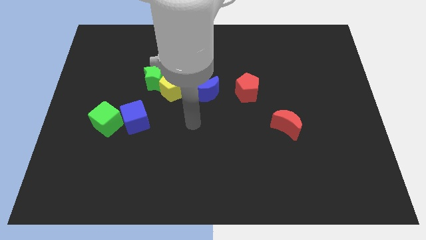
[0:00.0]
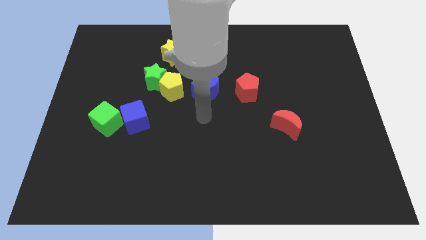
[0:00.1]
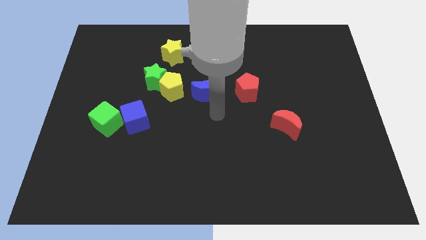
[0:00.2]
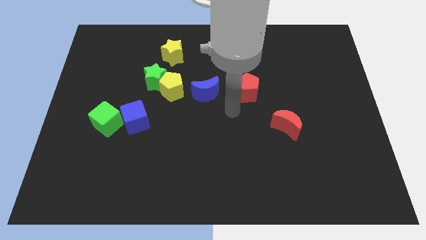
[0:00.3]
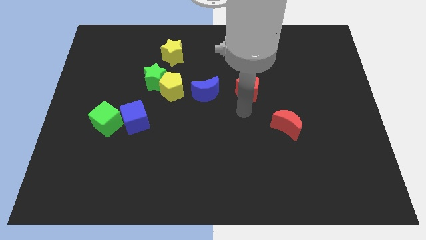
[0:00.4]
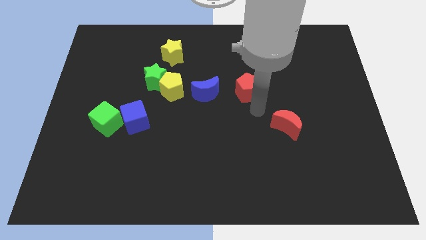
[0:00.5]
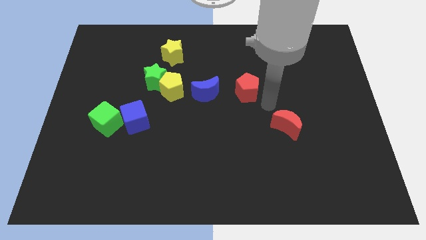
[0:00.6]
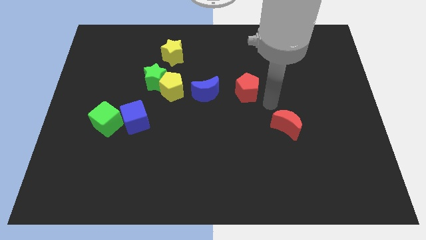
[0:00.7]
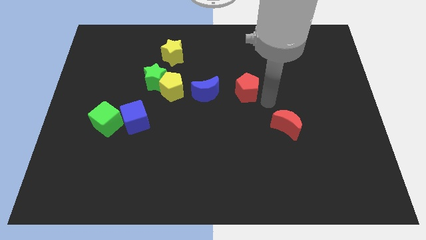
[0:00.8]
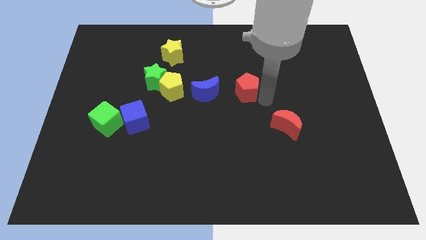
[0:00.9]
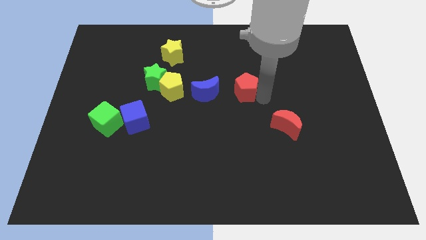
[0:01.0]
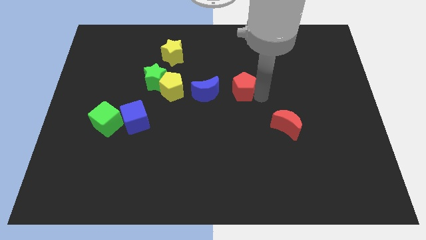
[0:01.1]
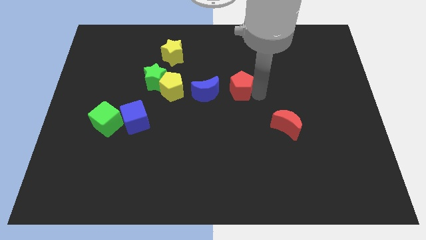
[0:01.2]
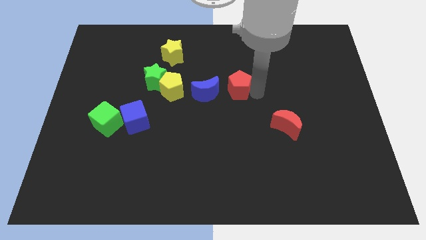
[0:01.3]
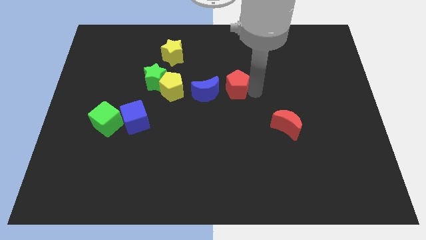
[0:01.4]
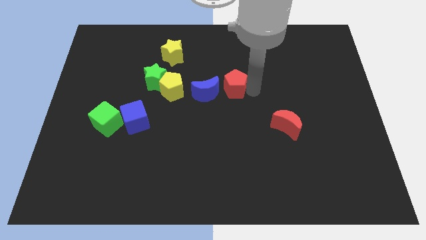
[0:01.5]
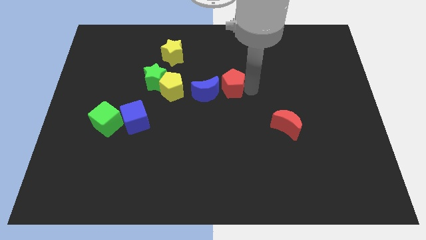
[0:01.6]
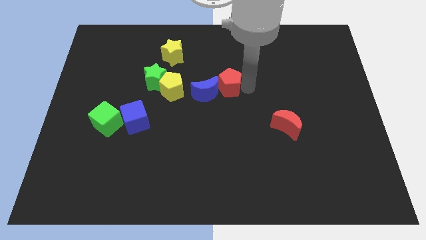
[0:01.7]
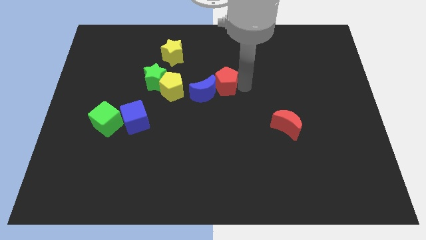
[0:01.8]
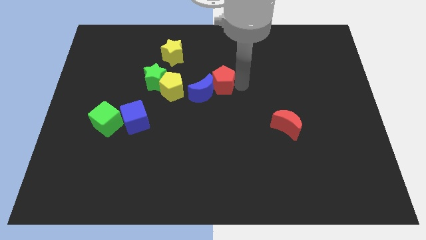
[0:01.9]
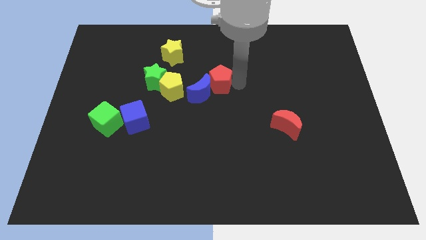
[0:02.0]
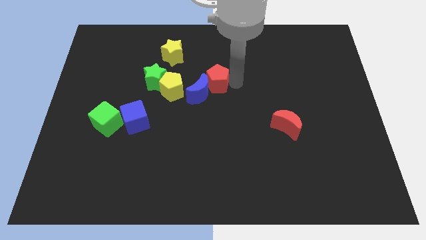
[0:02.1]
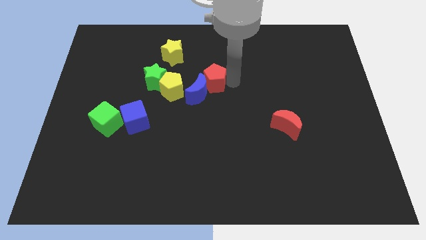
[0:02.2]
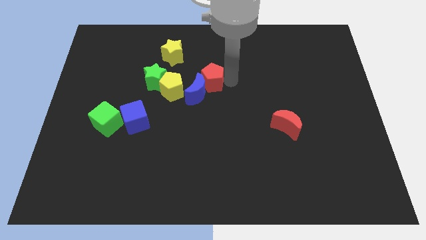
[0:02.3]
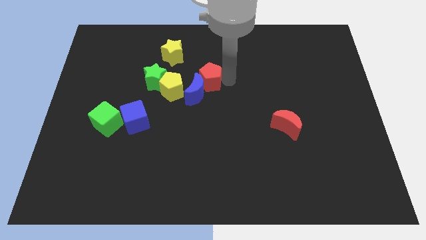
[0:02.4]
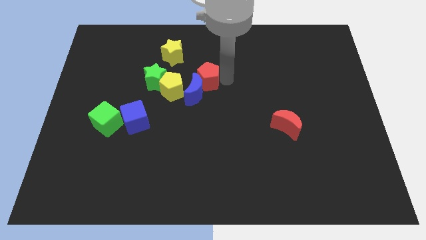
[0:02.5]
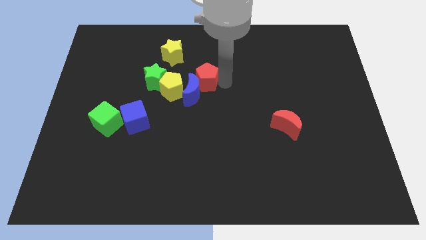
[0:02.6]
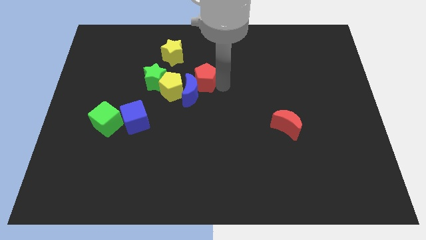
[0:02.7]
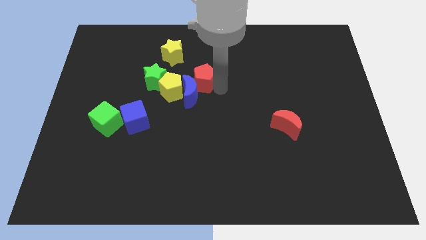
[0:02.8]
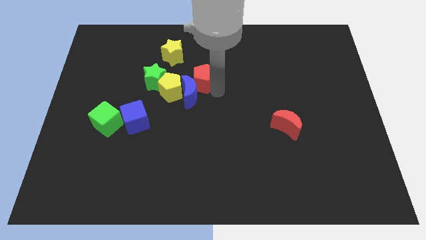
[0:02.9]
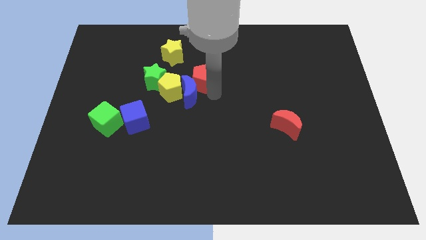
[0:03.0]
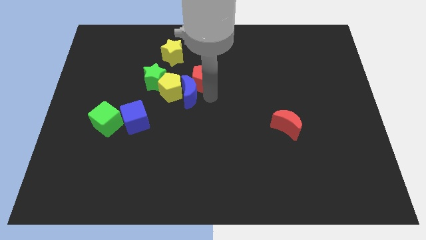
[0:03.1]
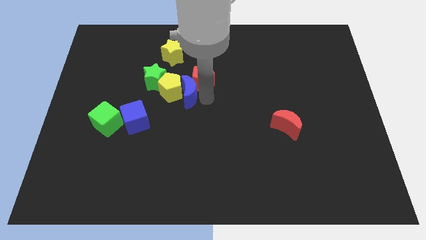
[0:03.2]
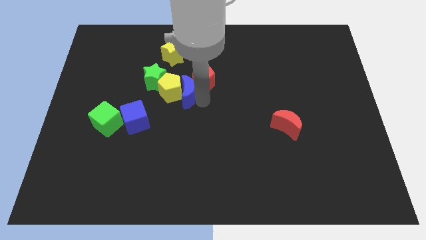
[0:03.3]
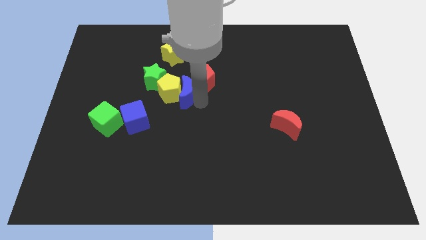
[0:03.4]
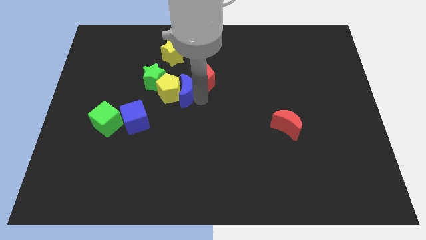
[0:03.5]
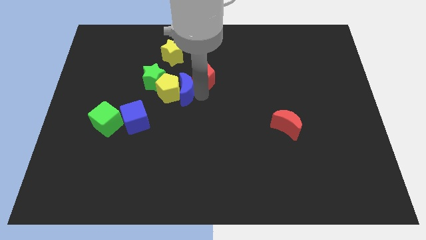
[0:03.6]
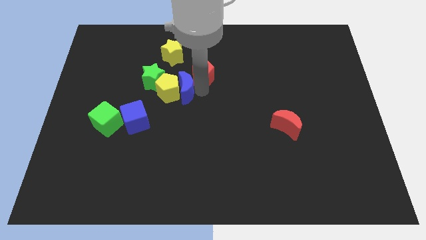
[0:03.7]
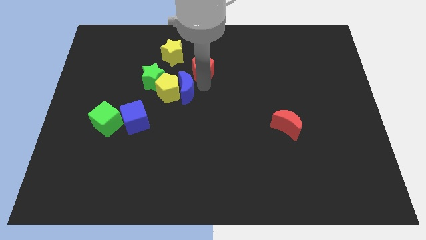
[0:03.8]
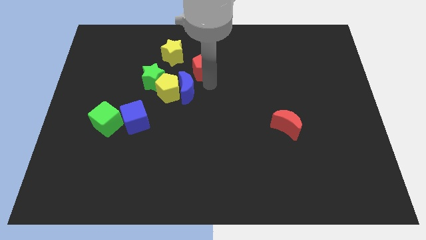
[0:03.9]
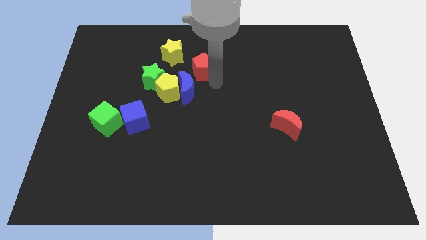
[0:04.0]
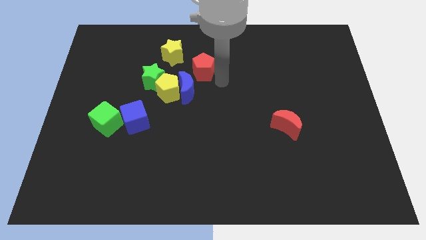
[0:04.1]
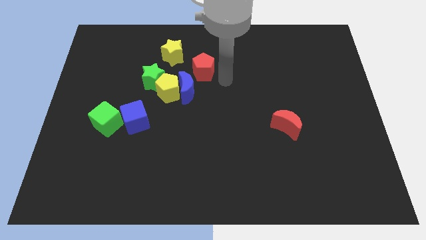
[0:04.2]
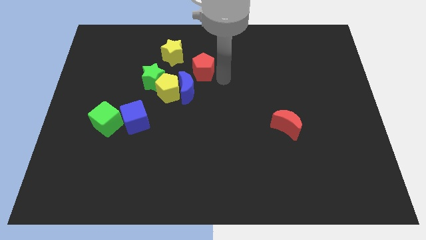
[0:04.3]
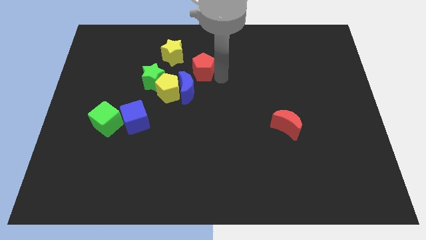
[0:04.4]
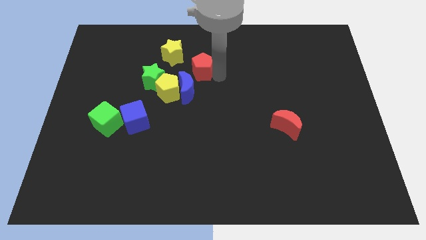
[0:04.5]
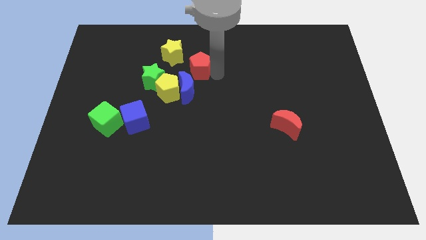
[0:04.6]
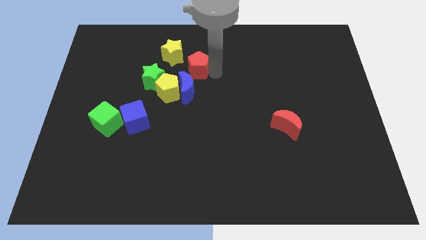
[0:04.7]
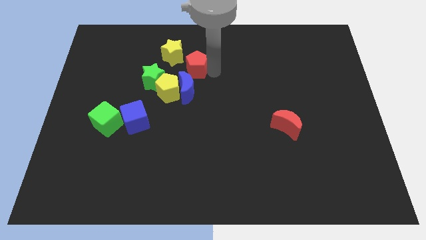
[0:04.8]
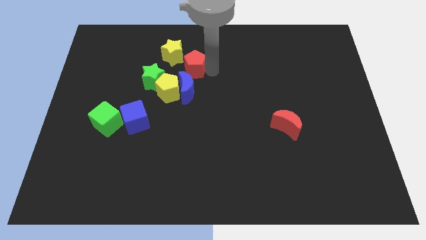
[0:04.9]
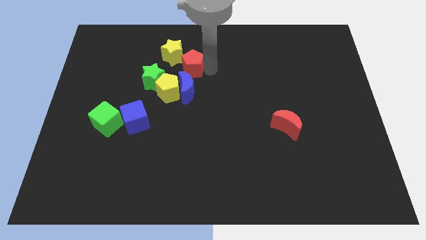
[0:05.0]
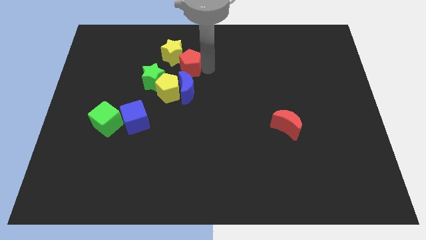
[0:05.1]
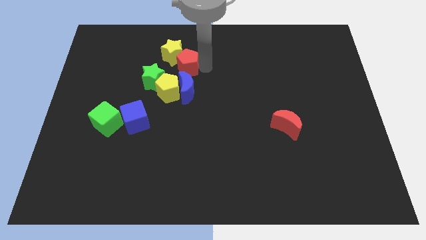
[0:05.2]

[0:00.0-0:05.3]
slide the red pentagon close to the yellow star
